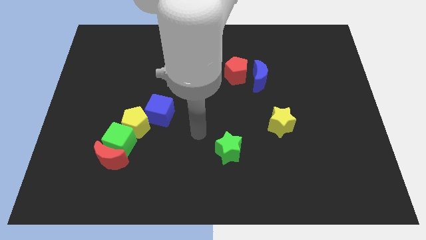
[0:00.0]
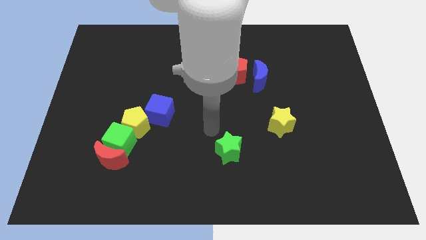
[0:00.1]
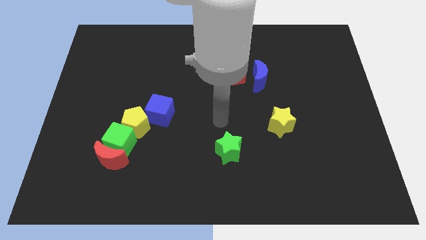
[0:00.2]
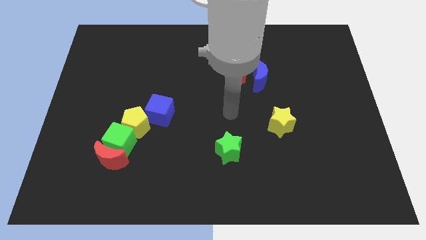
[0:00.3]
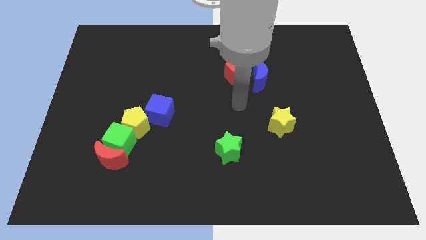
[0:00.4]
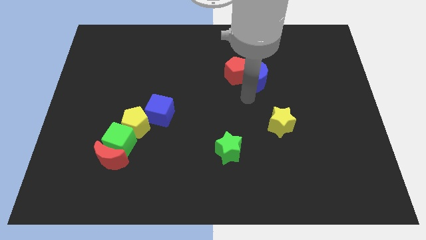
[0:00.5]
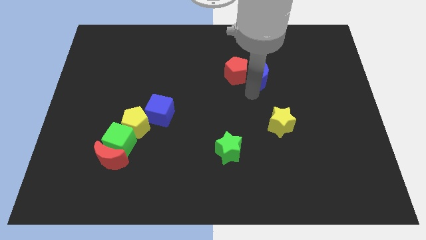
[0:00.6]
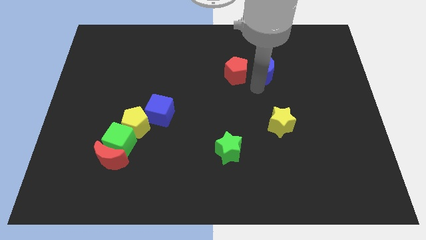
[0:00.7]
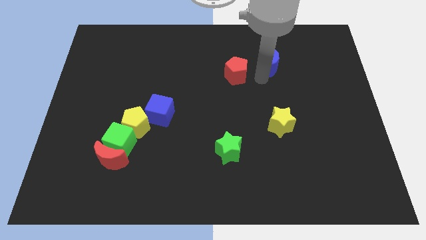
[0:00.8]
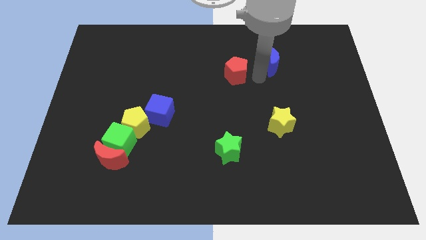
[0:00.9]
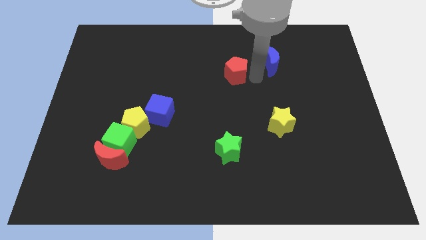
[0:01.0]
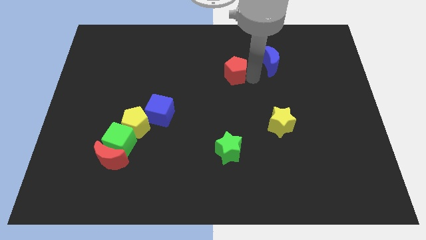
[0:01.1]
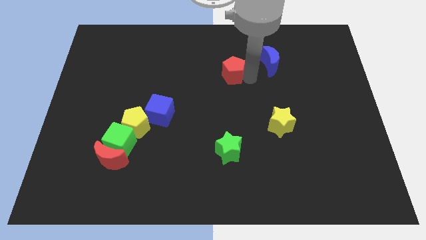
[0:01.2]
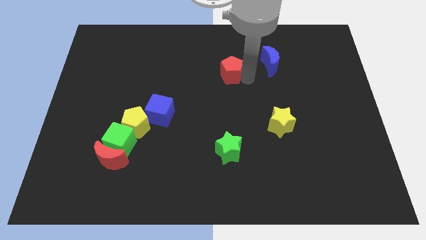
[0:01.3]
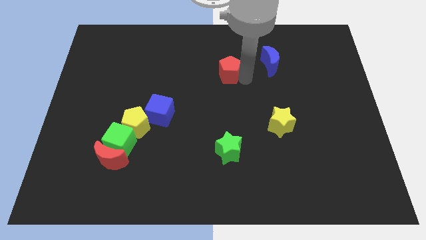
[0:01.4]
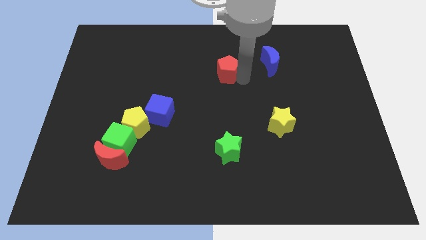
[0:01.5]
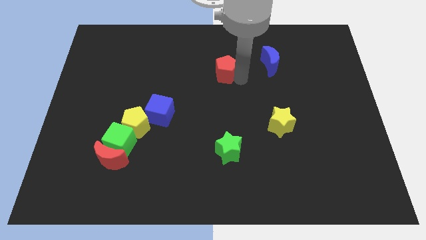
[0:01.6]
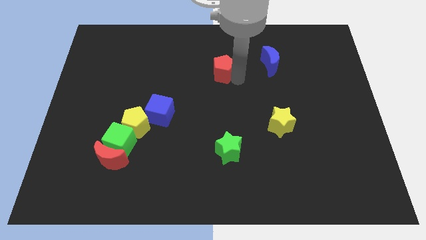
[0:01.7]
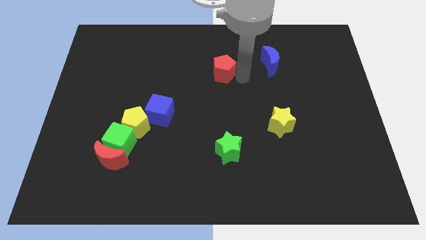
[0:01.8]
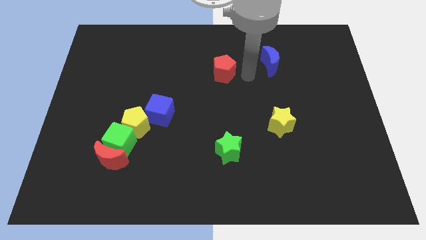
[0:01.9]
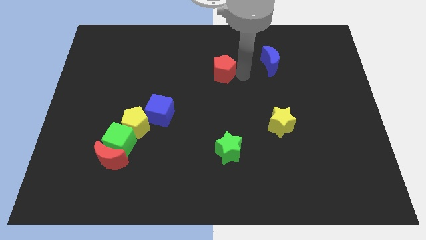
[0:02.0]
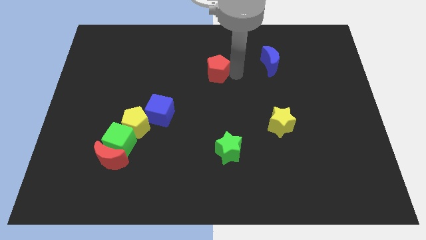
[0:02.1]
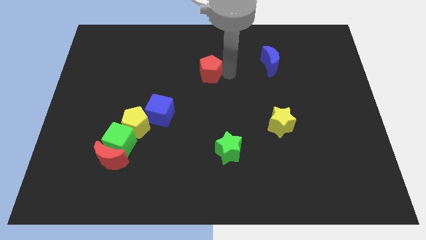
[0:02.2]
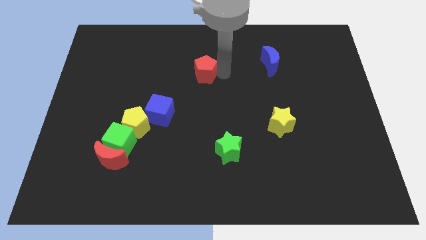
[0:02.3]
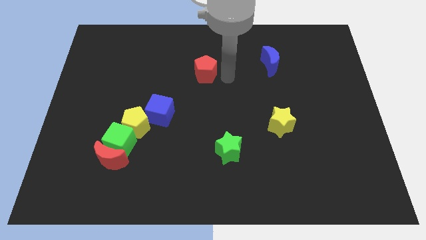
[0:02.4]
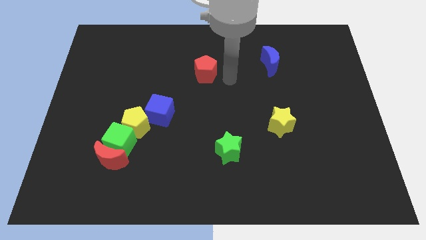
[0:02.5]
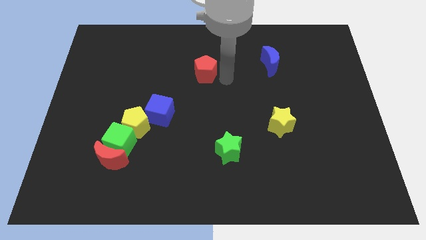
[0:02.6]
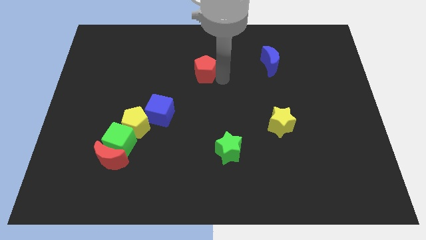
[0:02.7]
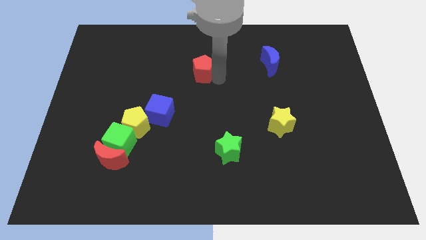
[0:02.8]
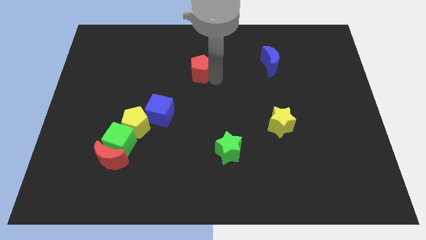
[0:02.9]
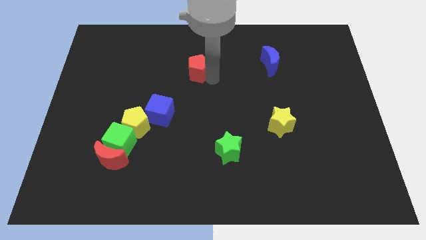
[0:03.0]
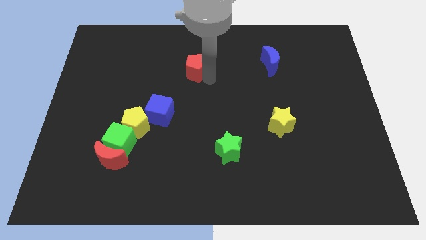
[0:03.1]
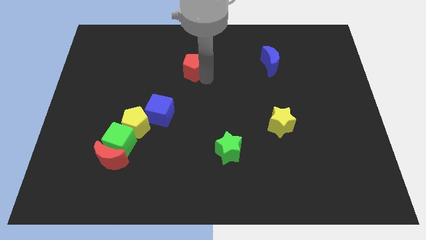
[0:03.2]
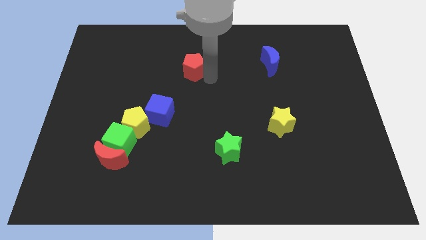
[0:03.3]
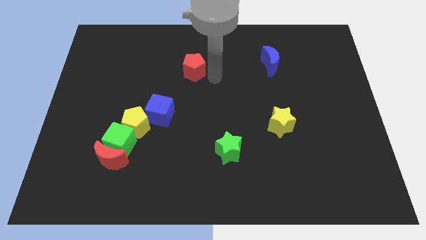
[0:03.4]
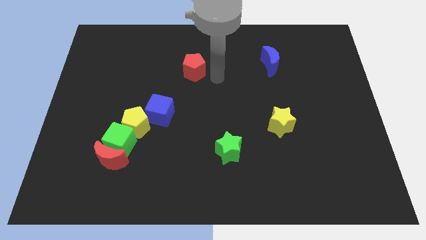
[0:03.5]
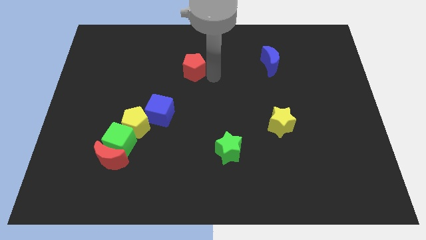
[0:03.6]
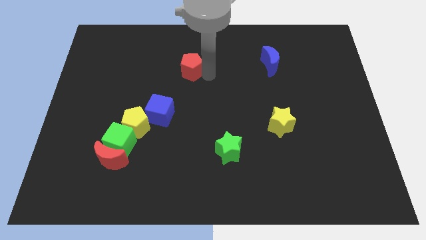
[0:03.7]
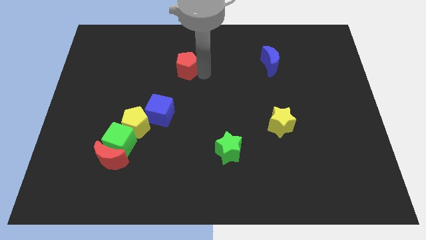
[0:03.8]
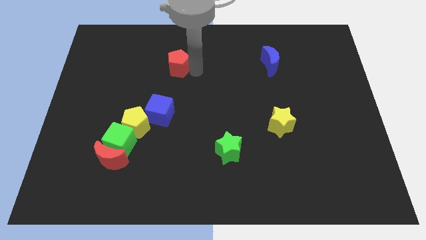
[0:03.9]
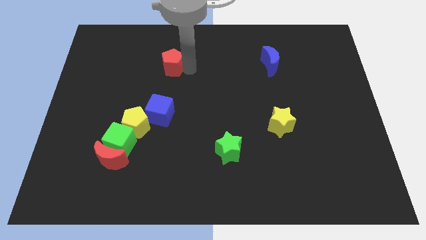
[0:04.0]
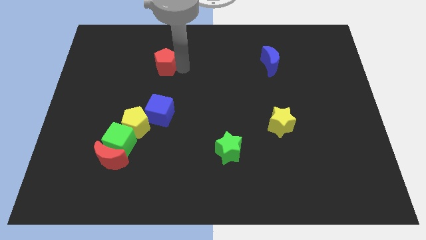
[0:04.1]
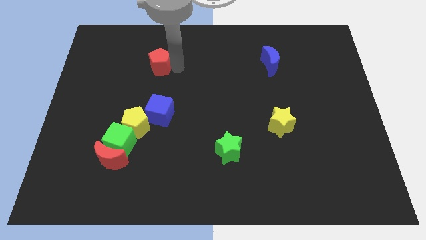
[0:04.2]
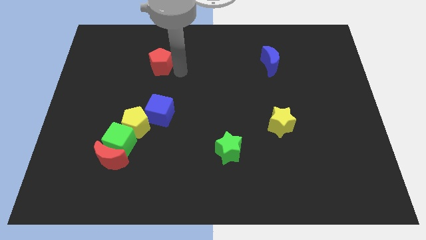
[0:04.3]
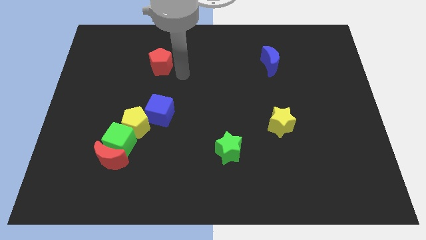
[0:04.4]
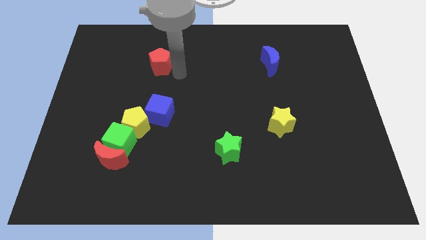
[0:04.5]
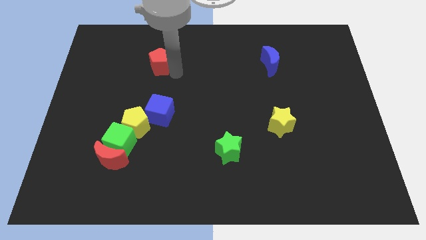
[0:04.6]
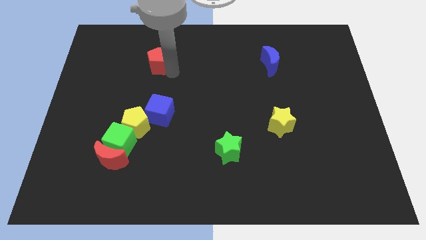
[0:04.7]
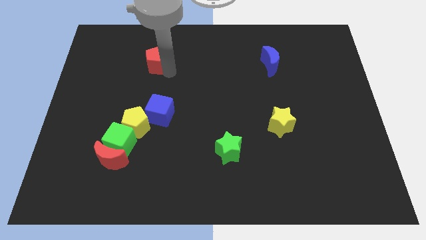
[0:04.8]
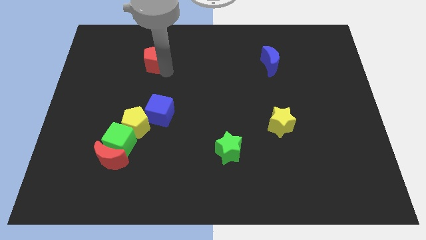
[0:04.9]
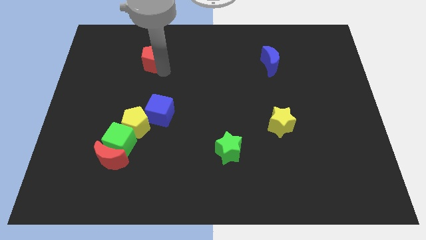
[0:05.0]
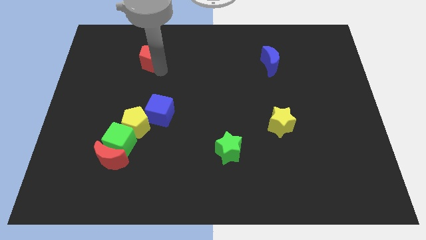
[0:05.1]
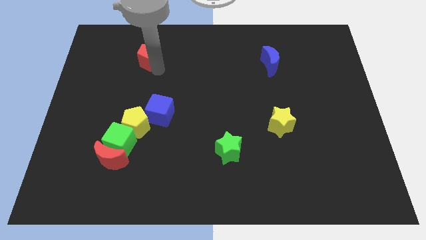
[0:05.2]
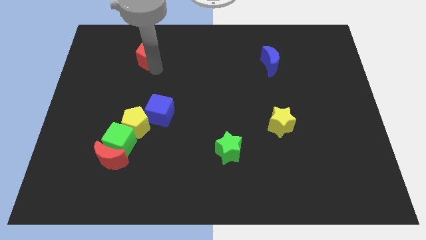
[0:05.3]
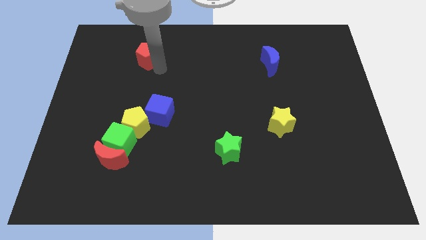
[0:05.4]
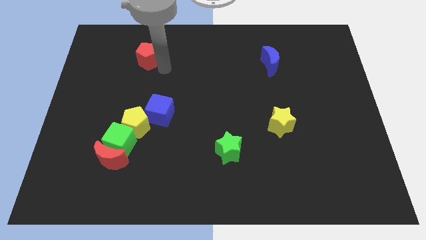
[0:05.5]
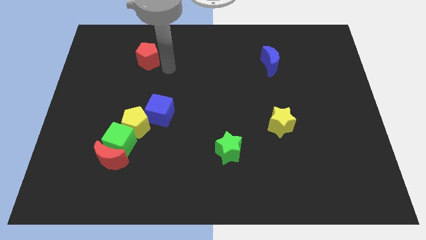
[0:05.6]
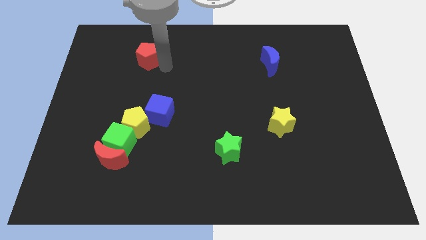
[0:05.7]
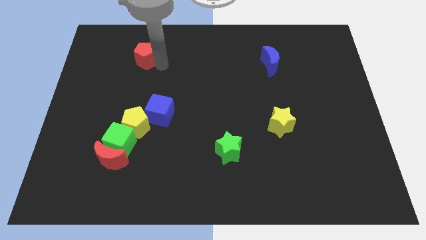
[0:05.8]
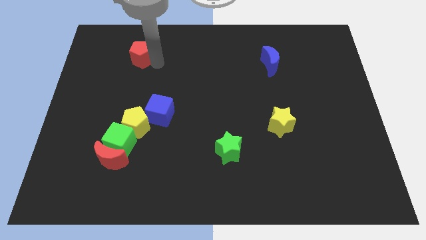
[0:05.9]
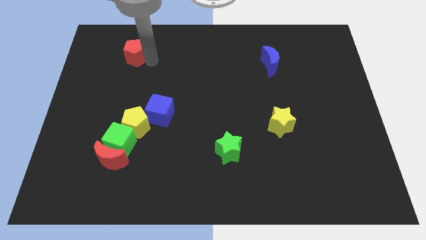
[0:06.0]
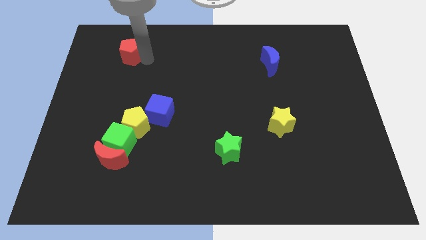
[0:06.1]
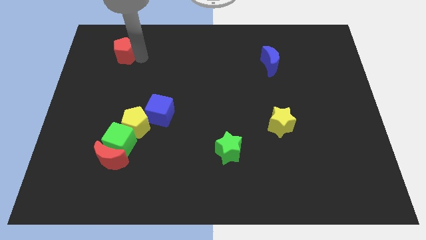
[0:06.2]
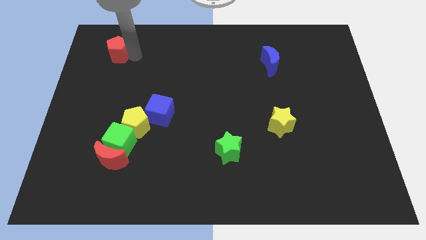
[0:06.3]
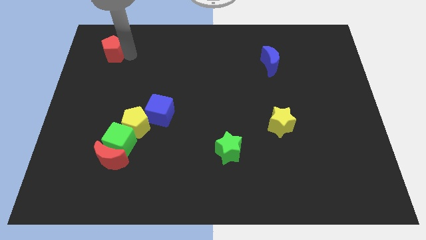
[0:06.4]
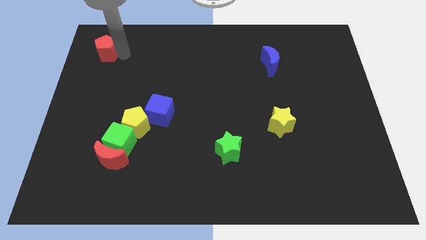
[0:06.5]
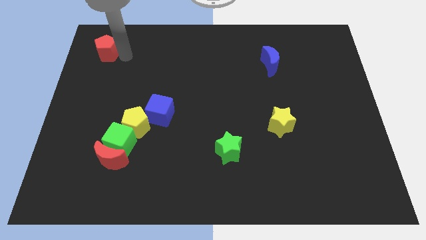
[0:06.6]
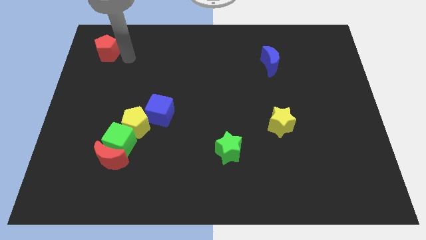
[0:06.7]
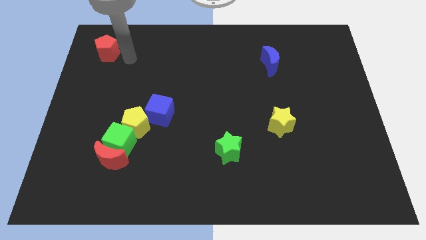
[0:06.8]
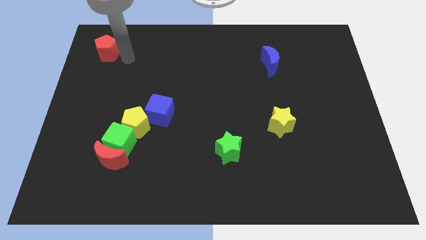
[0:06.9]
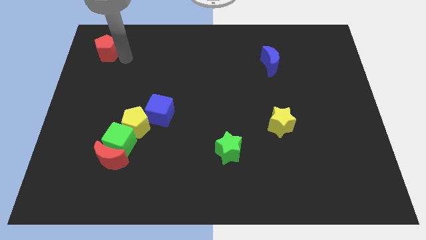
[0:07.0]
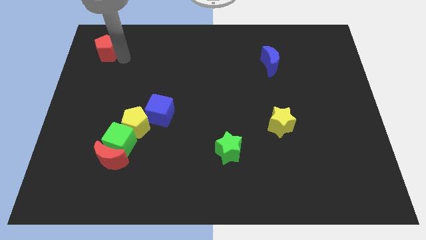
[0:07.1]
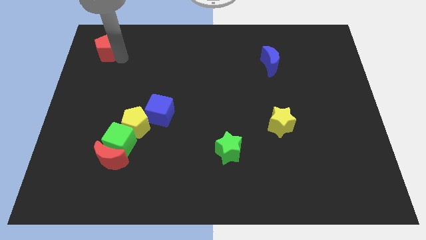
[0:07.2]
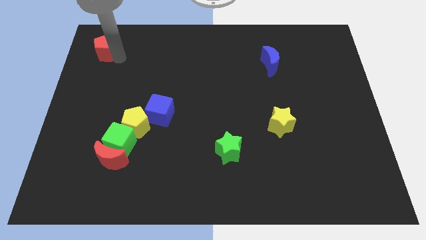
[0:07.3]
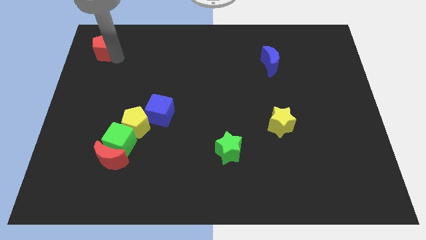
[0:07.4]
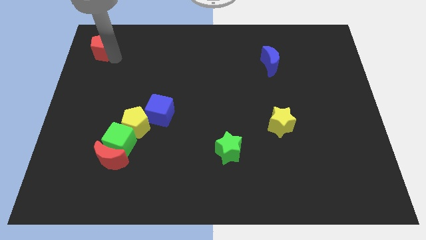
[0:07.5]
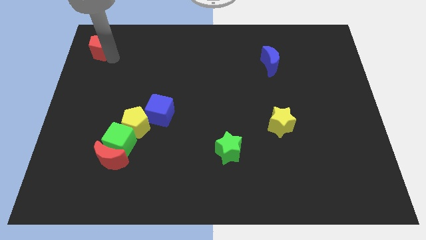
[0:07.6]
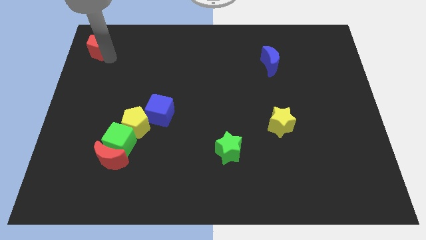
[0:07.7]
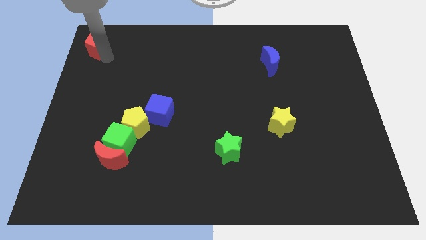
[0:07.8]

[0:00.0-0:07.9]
put the red pentagon to the top left of the board
